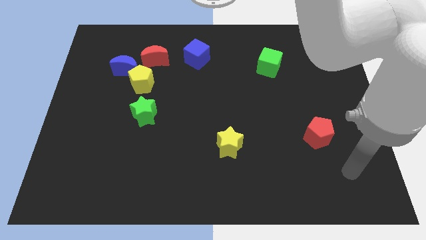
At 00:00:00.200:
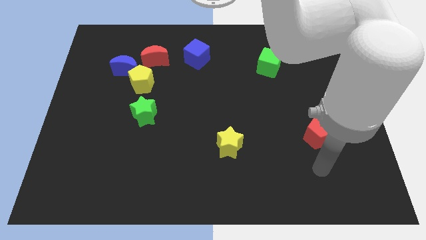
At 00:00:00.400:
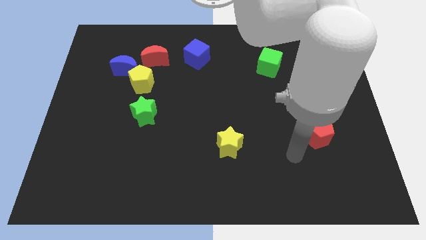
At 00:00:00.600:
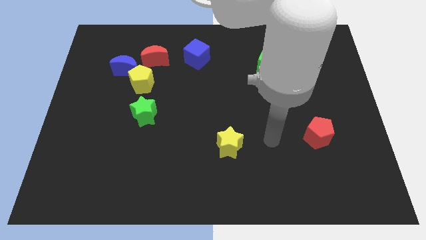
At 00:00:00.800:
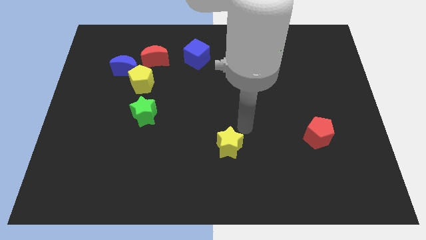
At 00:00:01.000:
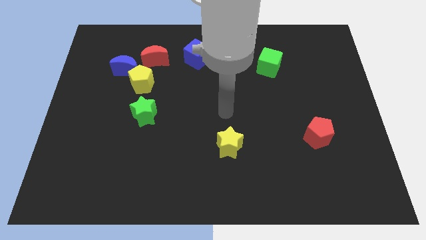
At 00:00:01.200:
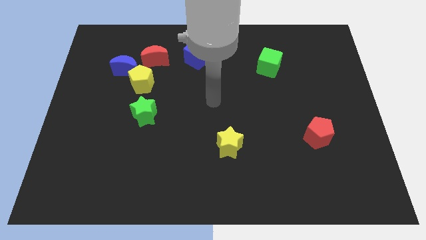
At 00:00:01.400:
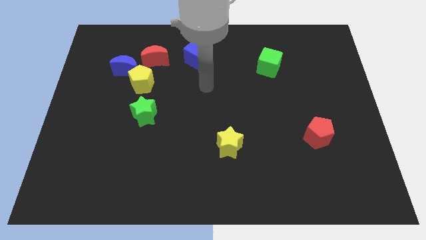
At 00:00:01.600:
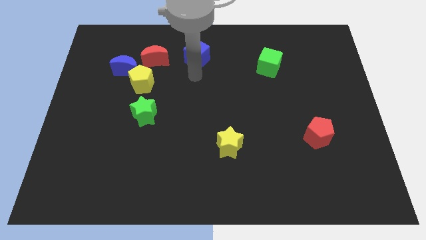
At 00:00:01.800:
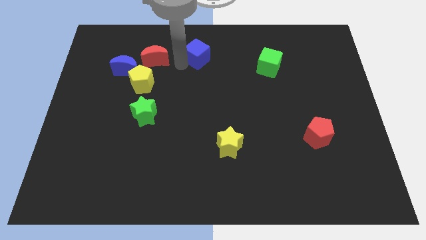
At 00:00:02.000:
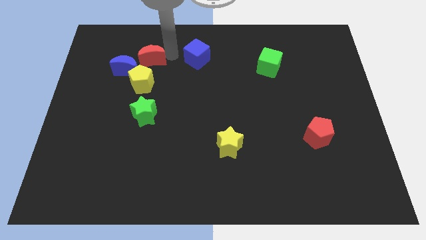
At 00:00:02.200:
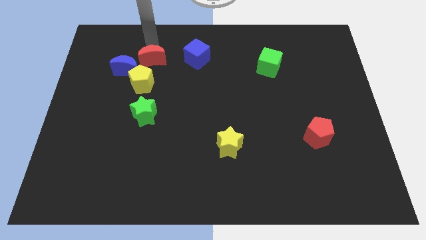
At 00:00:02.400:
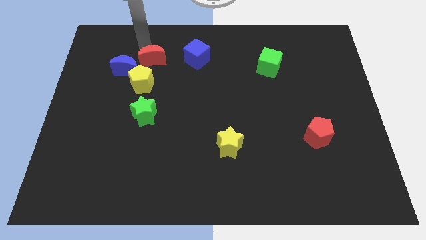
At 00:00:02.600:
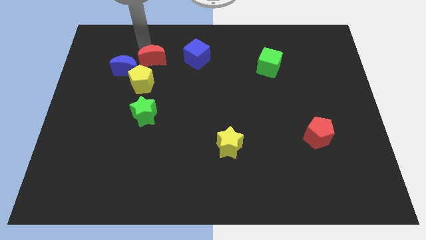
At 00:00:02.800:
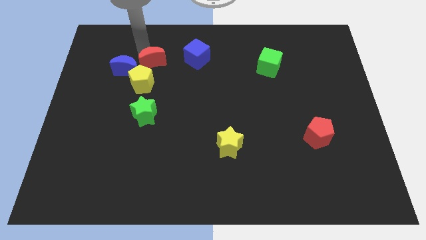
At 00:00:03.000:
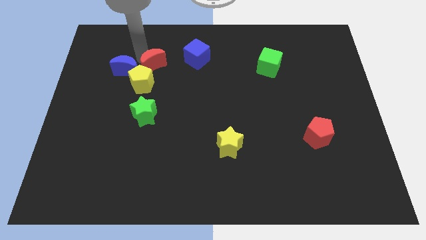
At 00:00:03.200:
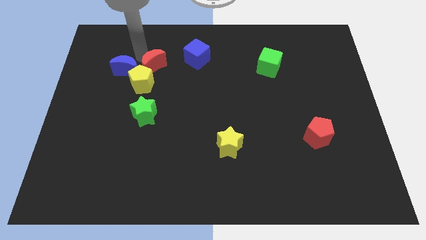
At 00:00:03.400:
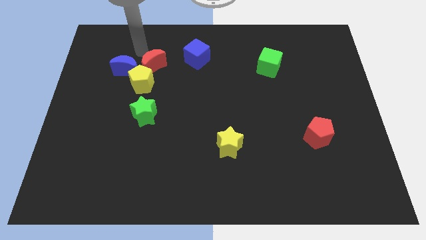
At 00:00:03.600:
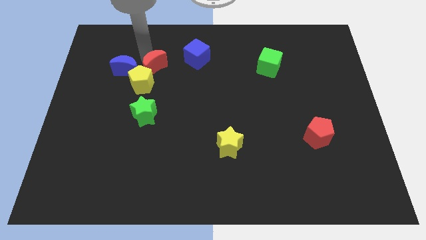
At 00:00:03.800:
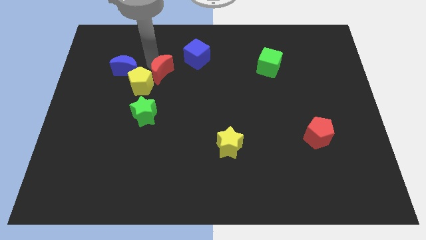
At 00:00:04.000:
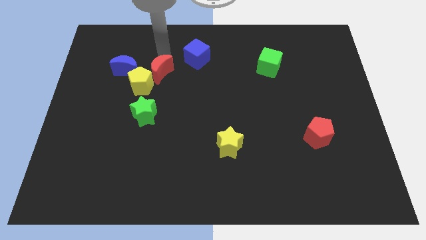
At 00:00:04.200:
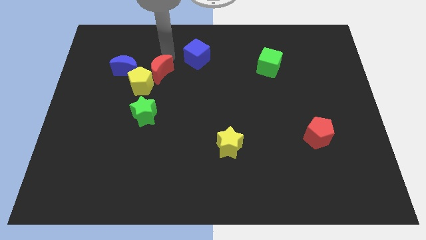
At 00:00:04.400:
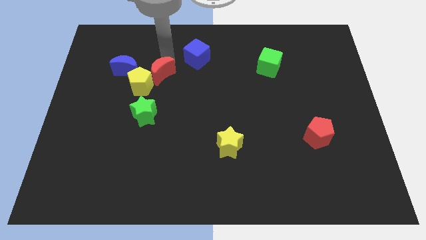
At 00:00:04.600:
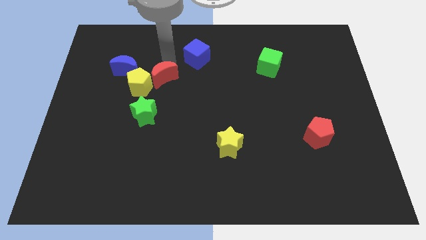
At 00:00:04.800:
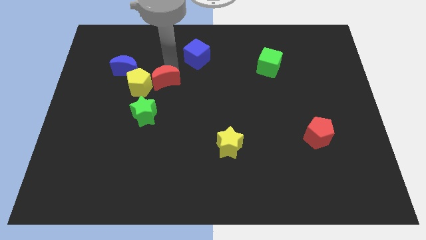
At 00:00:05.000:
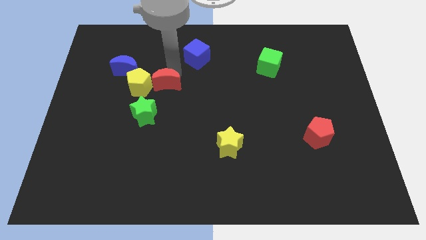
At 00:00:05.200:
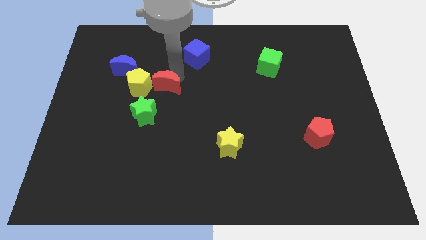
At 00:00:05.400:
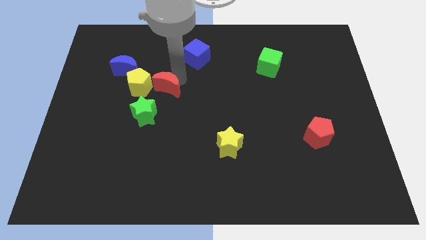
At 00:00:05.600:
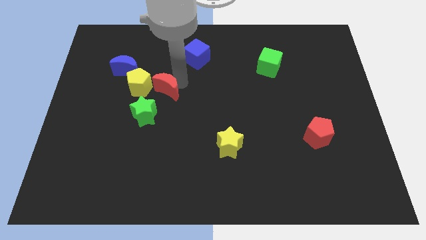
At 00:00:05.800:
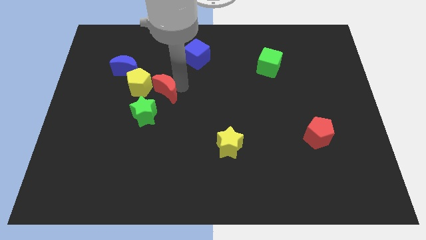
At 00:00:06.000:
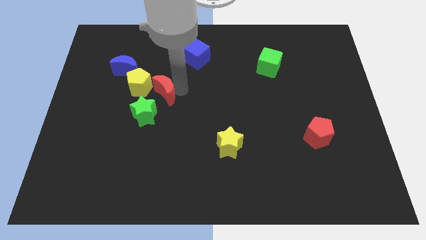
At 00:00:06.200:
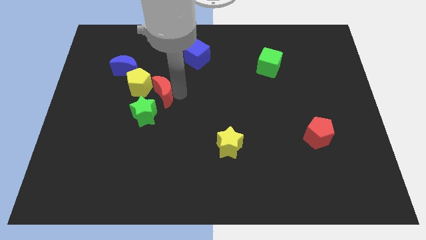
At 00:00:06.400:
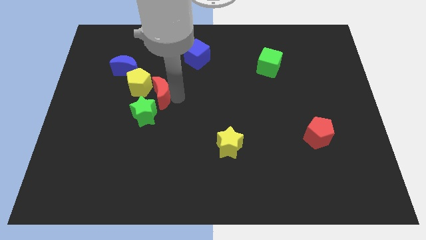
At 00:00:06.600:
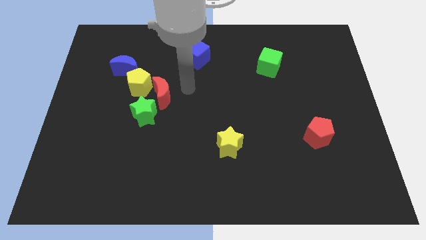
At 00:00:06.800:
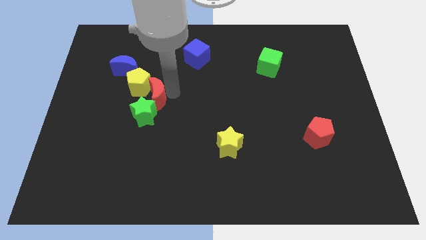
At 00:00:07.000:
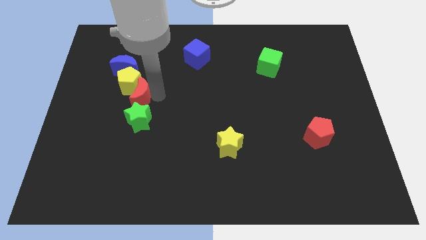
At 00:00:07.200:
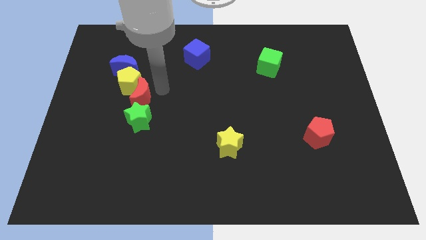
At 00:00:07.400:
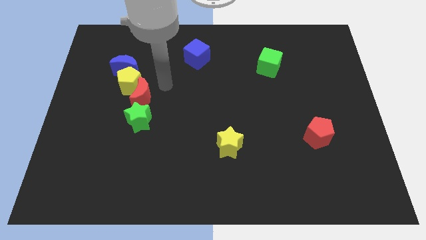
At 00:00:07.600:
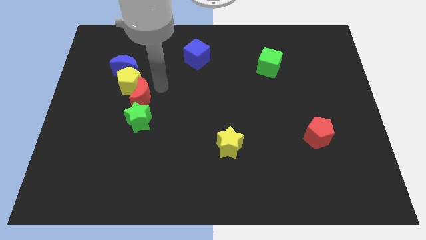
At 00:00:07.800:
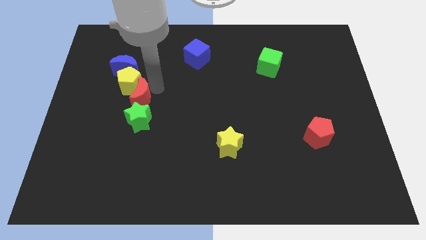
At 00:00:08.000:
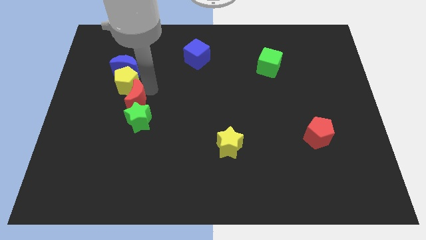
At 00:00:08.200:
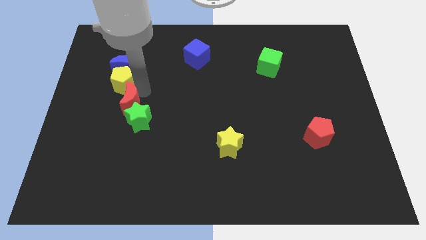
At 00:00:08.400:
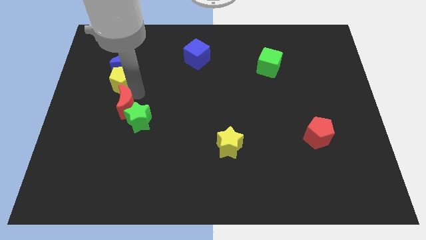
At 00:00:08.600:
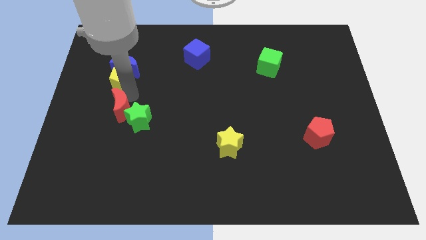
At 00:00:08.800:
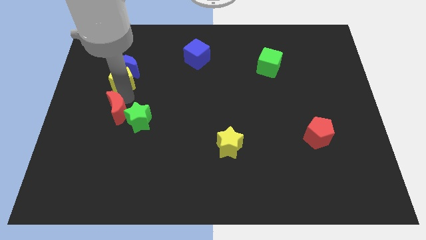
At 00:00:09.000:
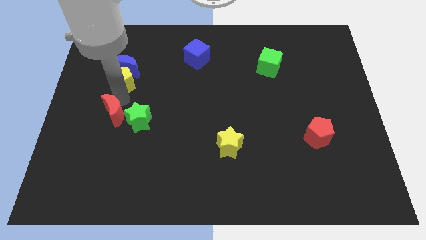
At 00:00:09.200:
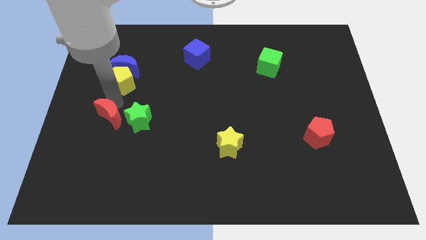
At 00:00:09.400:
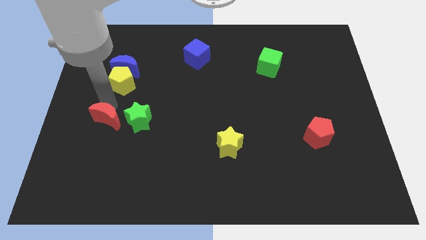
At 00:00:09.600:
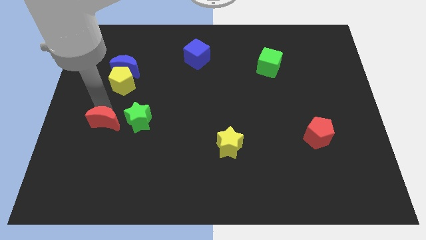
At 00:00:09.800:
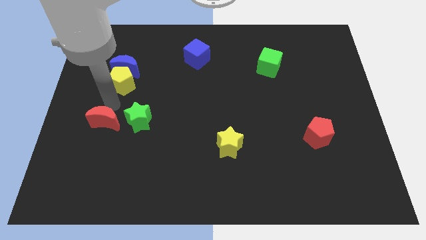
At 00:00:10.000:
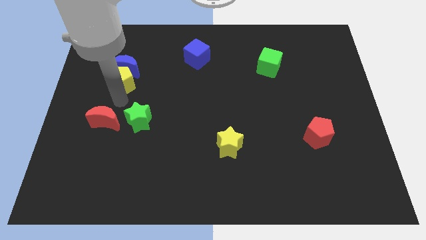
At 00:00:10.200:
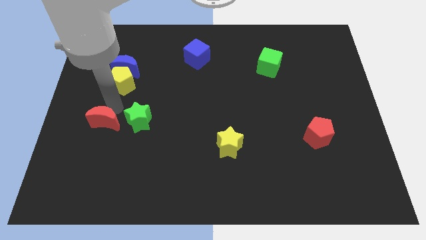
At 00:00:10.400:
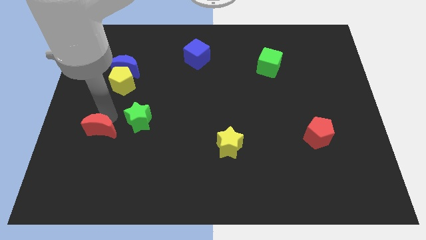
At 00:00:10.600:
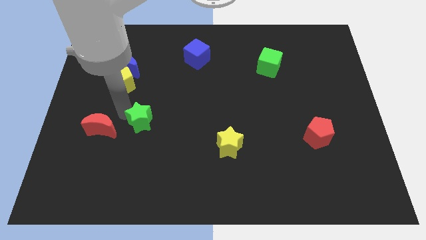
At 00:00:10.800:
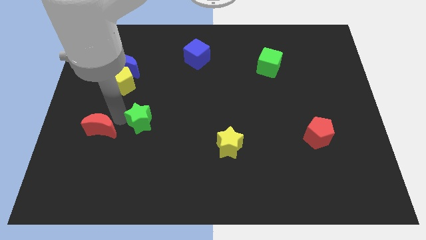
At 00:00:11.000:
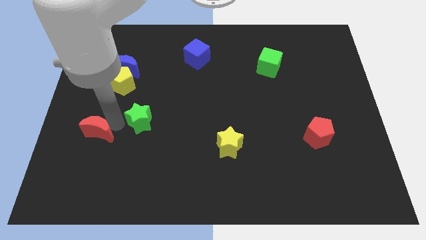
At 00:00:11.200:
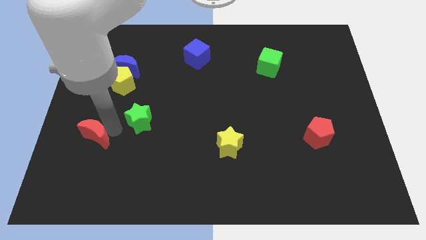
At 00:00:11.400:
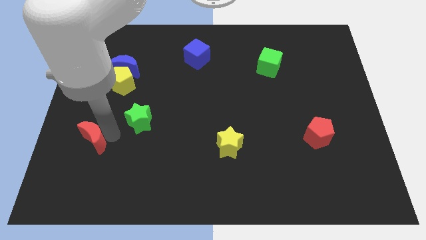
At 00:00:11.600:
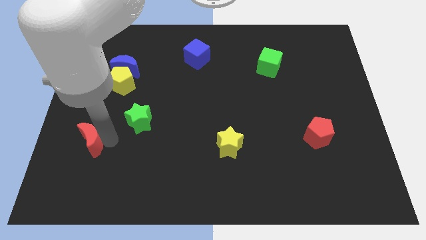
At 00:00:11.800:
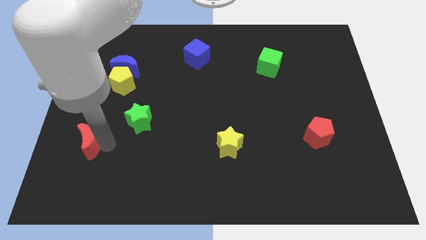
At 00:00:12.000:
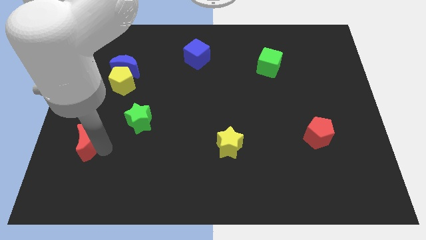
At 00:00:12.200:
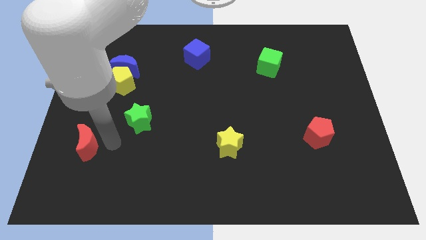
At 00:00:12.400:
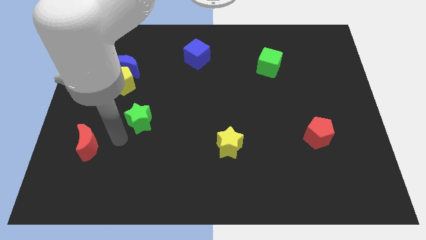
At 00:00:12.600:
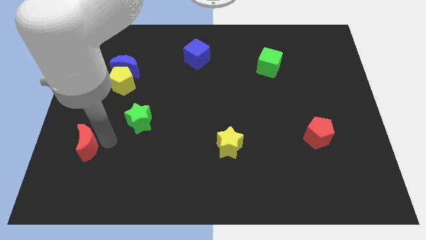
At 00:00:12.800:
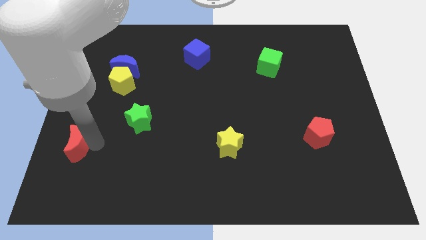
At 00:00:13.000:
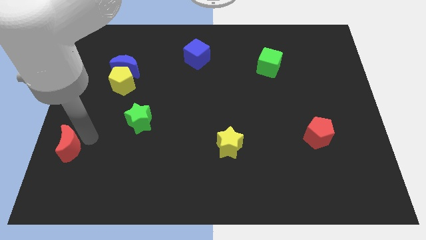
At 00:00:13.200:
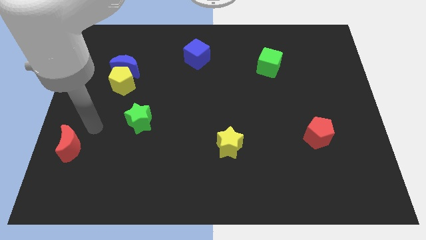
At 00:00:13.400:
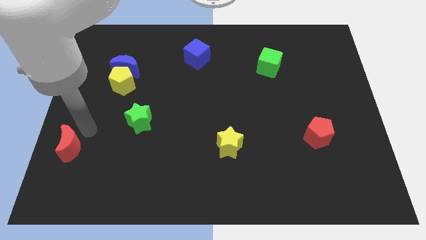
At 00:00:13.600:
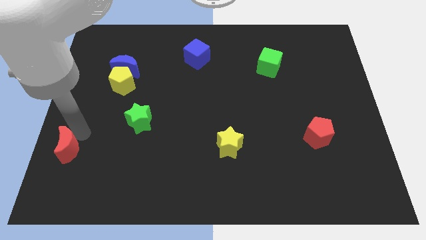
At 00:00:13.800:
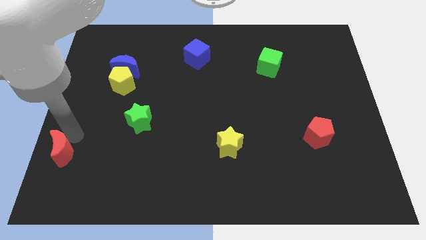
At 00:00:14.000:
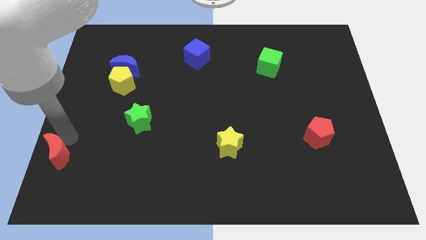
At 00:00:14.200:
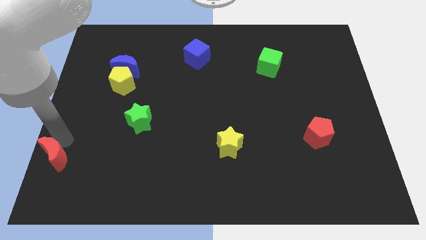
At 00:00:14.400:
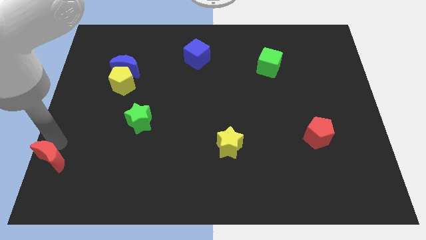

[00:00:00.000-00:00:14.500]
slide the red moon to the lower left corner

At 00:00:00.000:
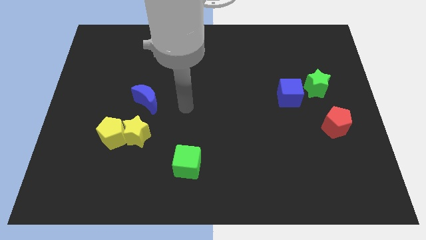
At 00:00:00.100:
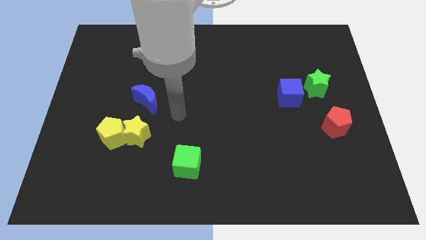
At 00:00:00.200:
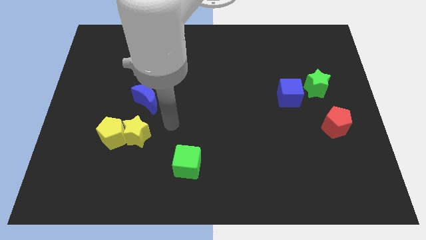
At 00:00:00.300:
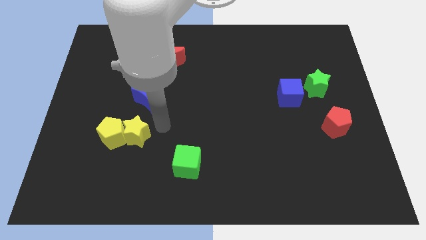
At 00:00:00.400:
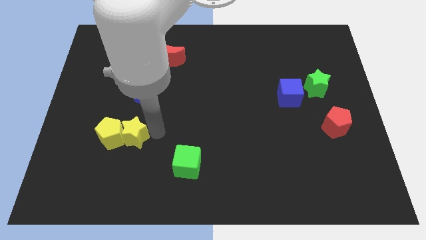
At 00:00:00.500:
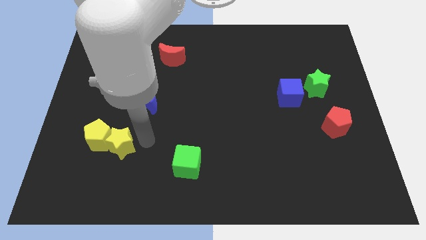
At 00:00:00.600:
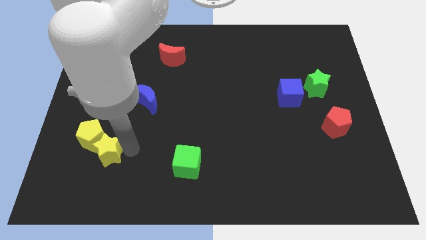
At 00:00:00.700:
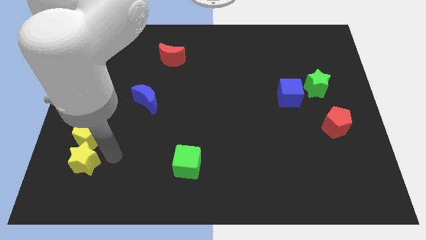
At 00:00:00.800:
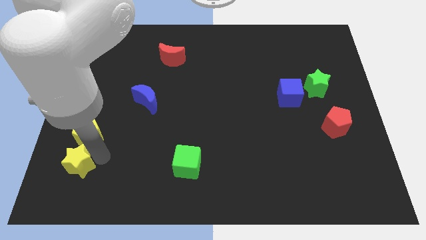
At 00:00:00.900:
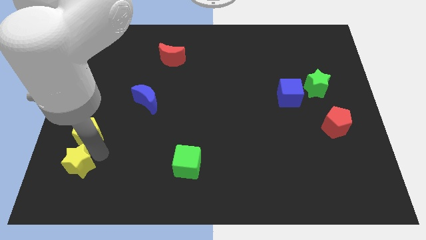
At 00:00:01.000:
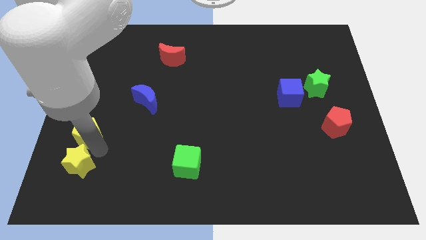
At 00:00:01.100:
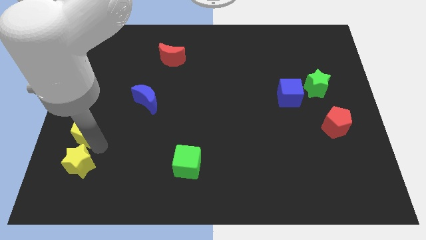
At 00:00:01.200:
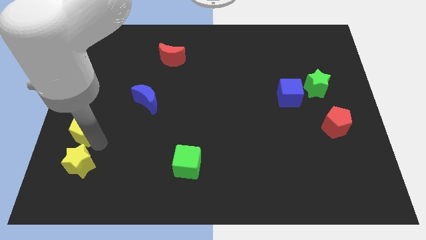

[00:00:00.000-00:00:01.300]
put the yellow pentagon to the left side of the board
